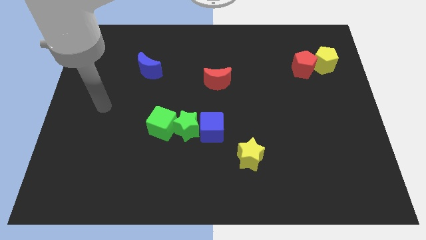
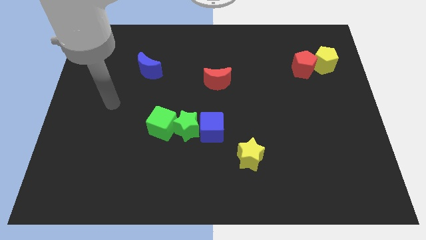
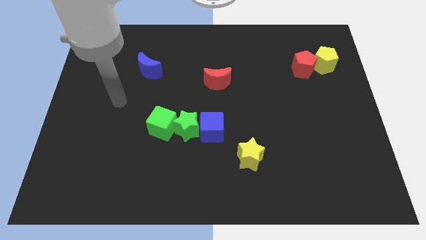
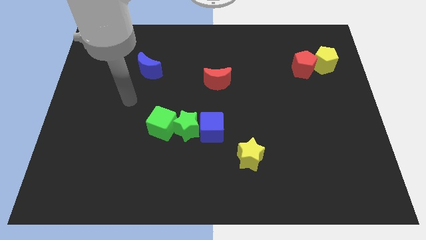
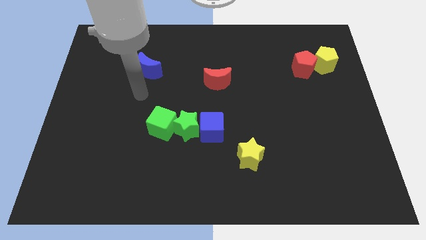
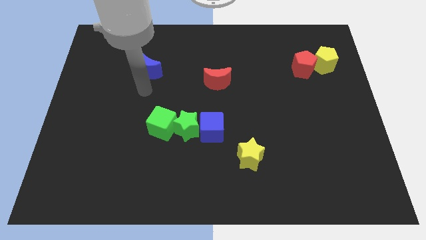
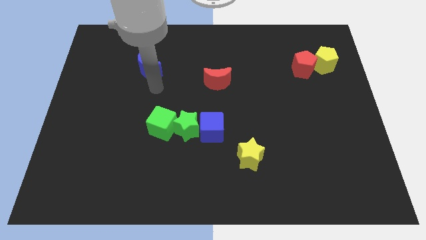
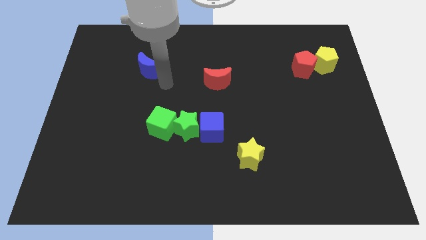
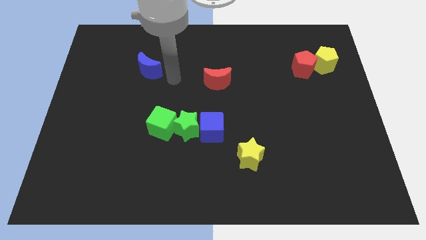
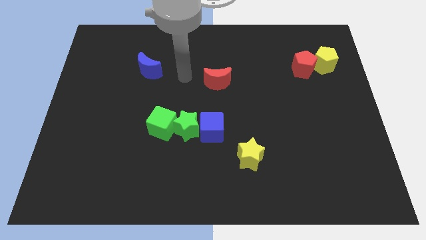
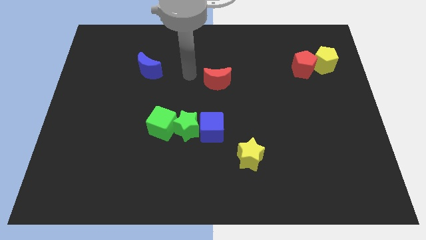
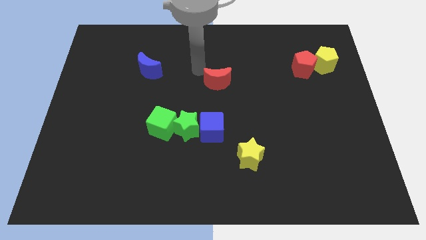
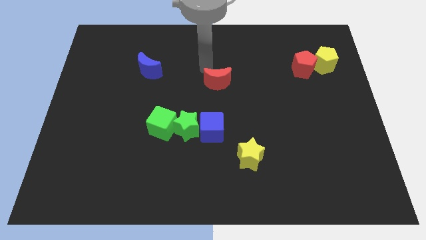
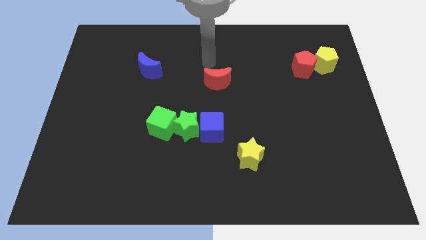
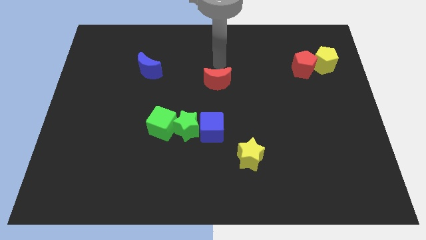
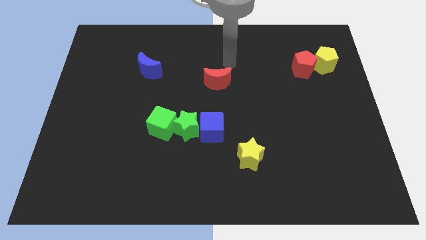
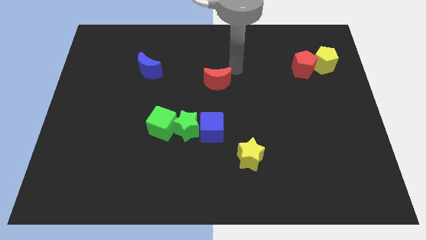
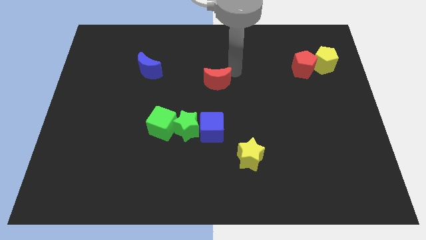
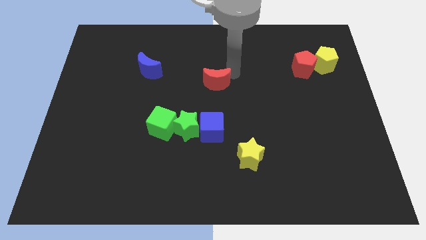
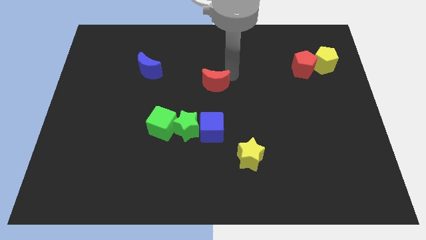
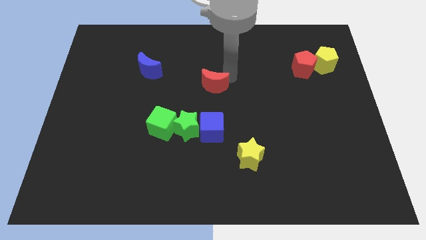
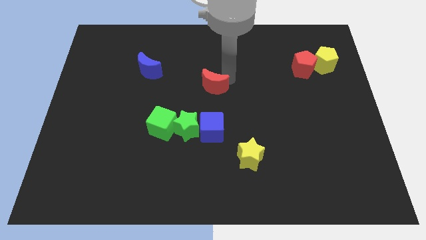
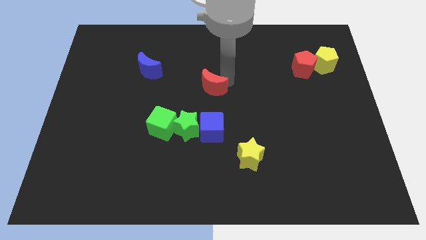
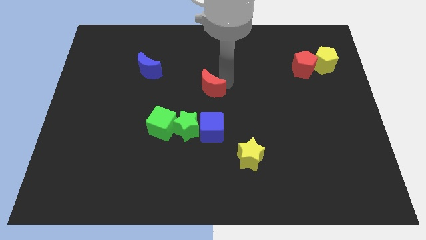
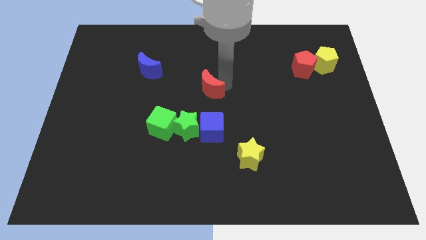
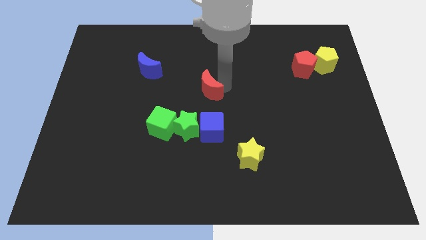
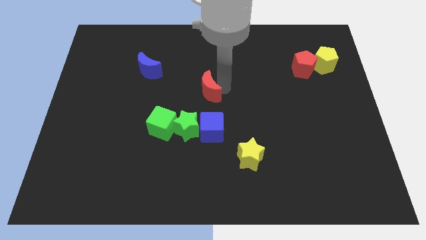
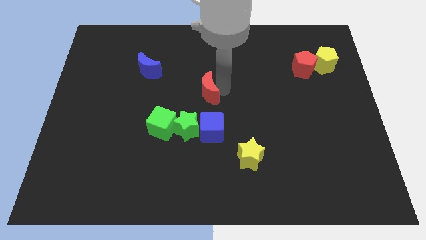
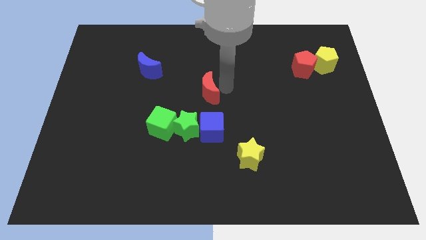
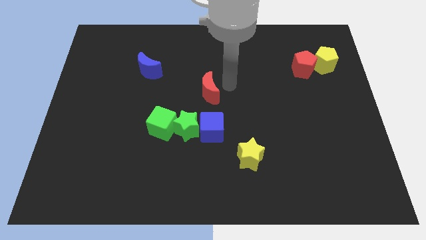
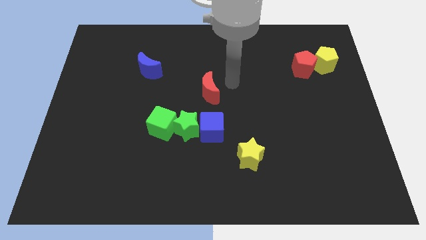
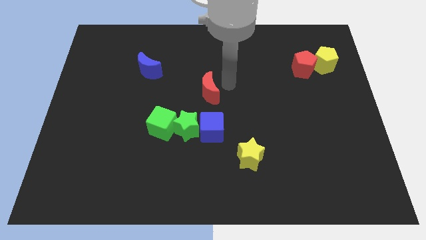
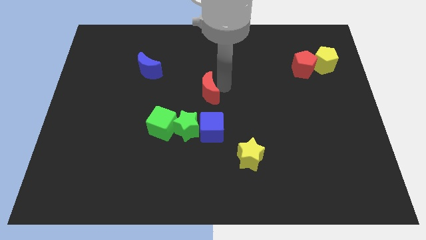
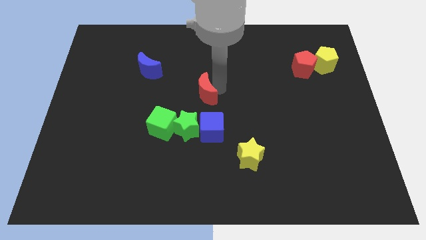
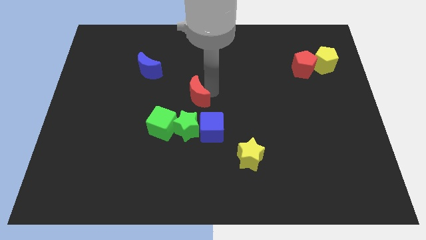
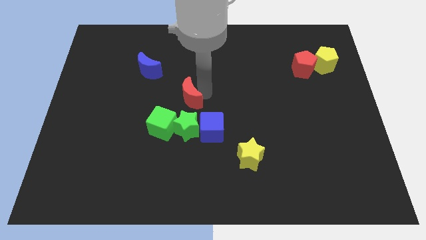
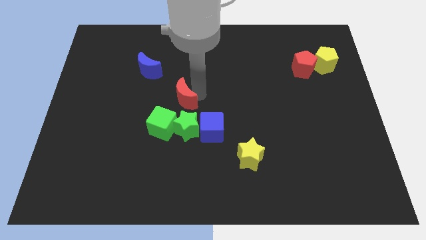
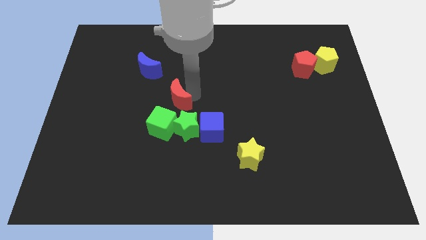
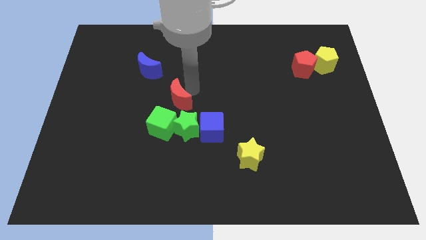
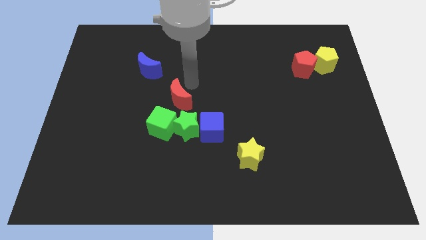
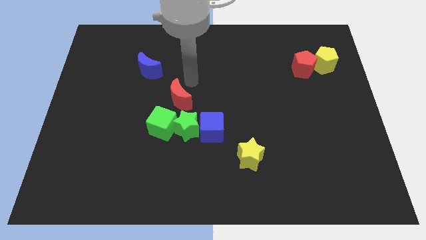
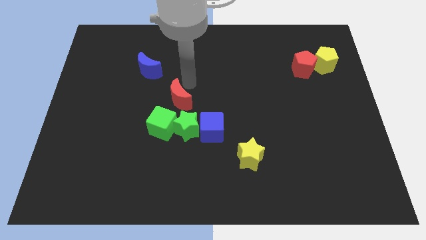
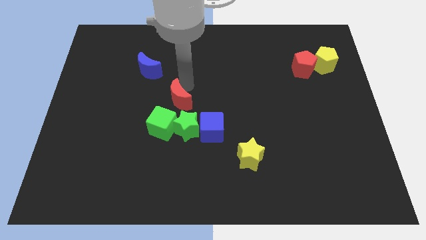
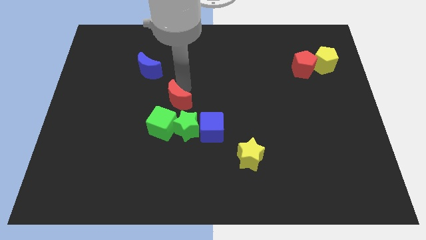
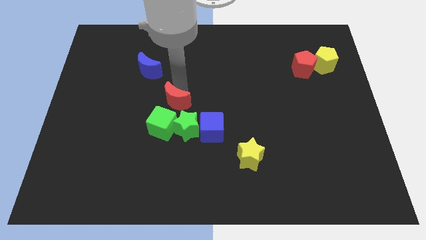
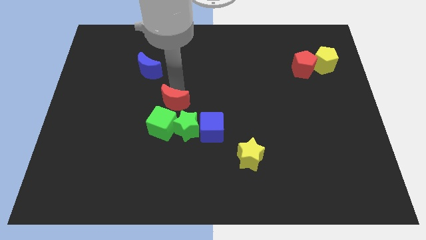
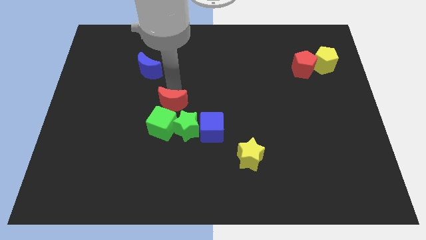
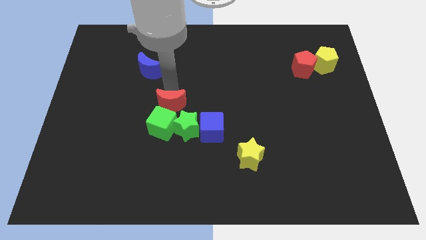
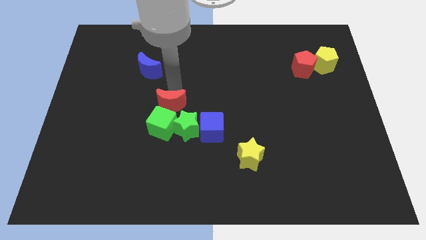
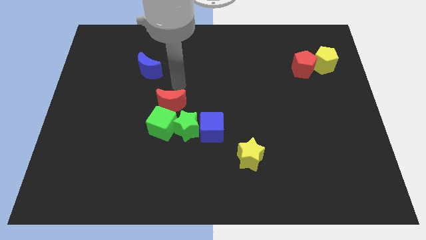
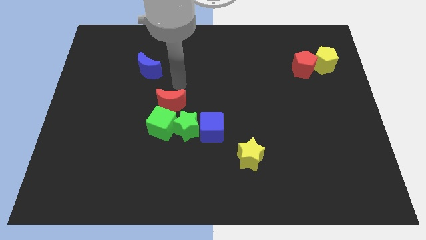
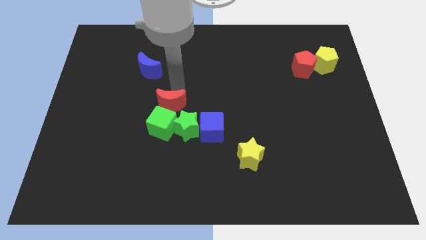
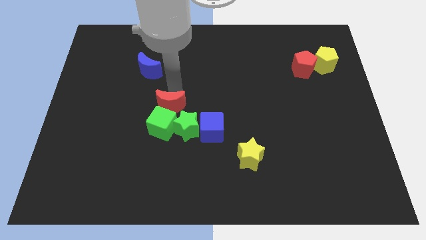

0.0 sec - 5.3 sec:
put the red moon to the green cube

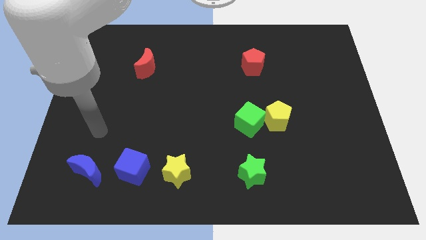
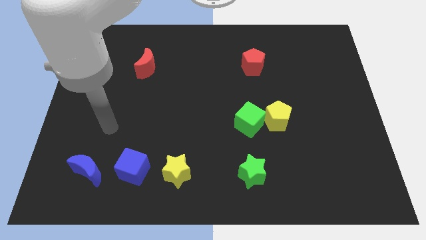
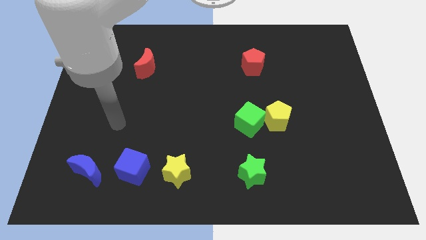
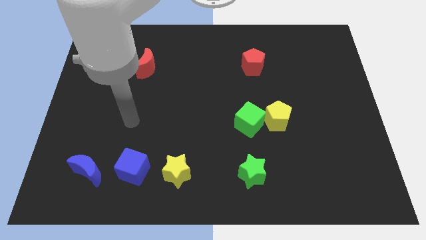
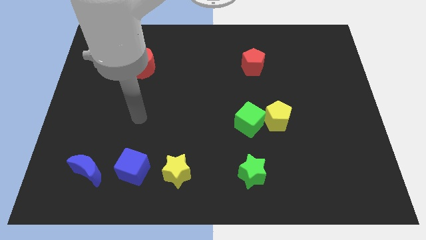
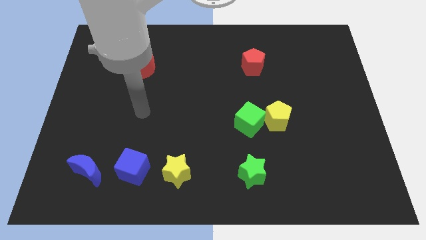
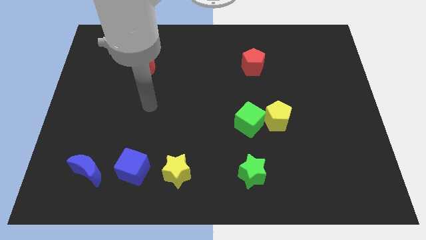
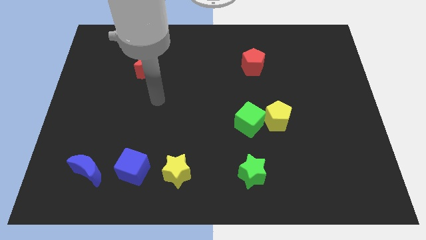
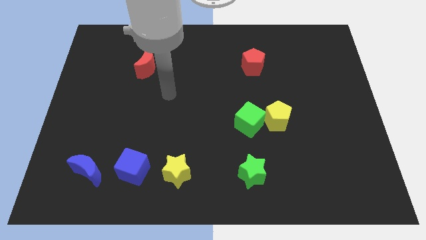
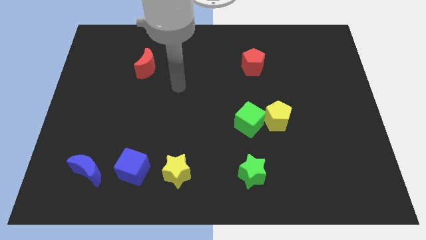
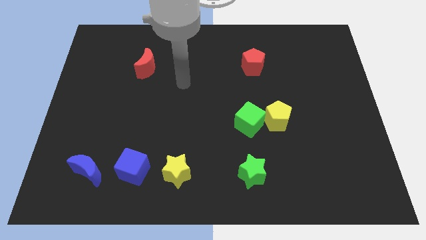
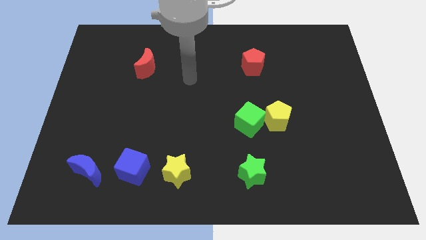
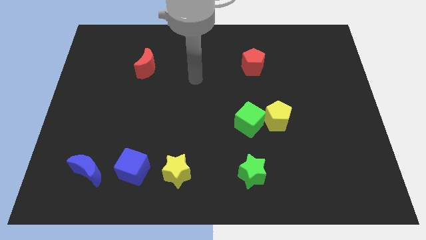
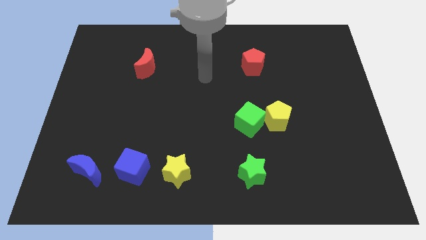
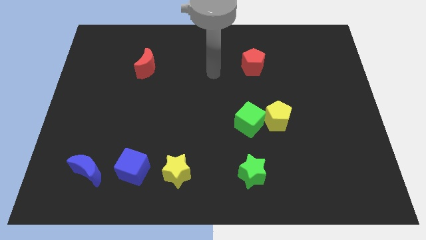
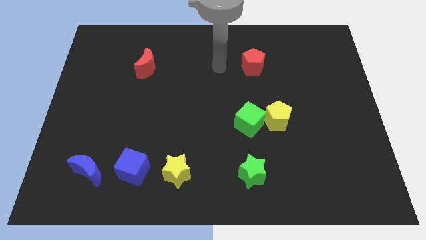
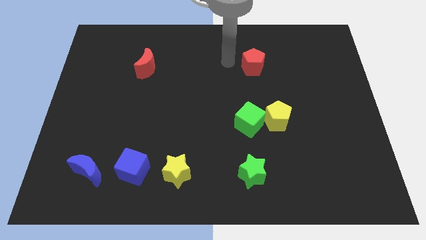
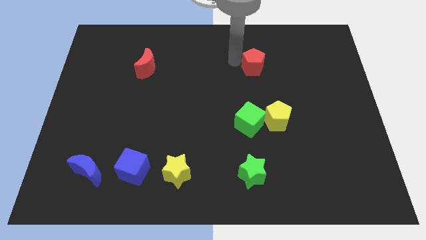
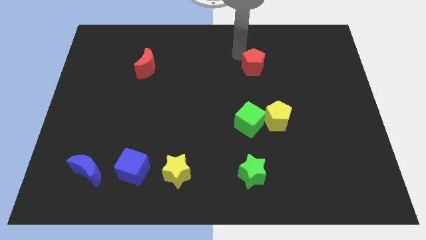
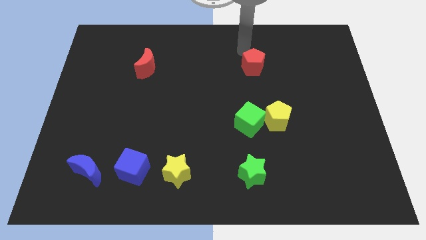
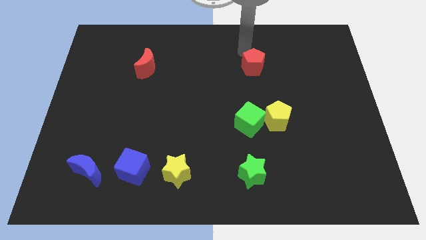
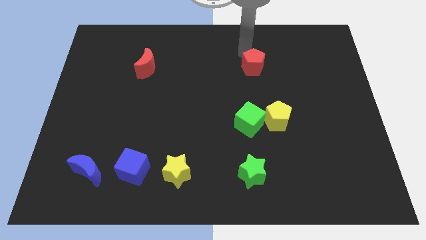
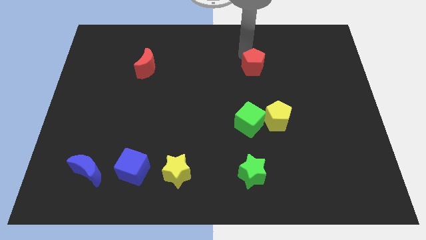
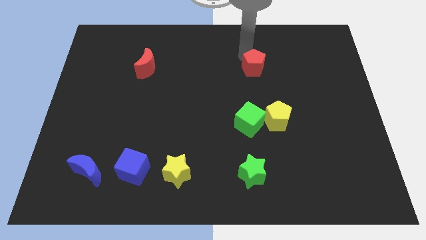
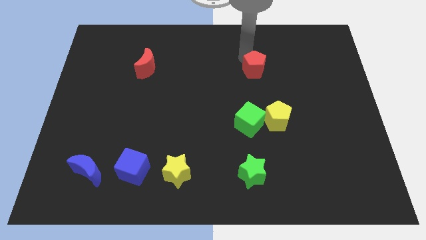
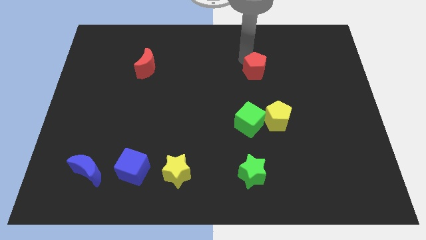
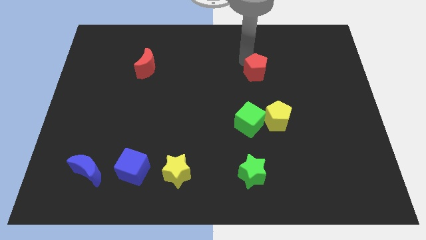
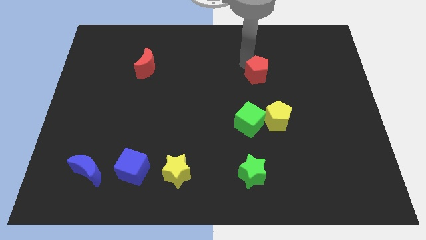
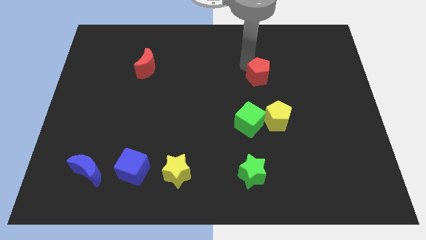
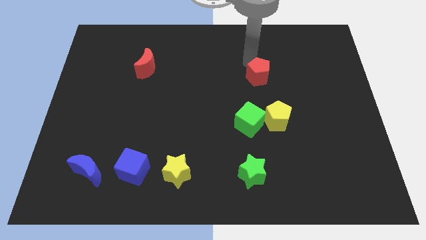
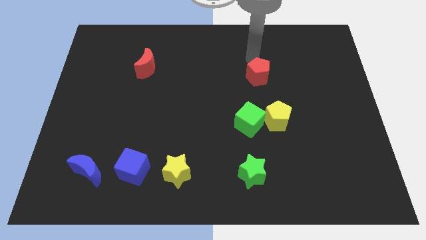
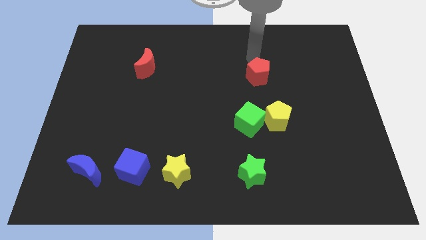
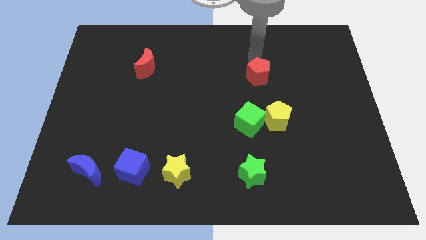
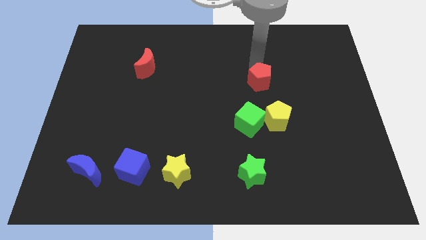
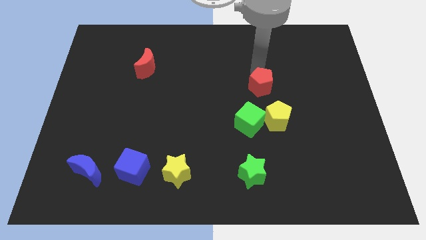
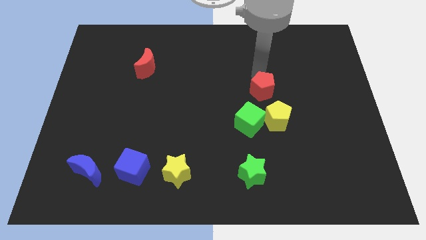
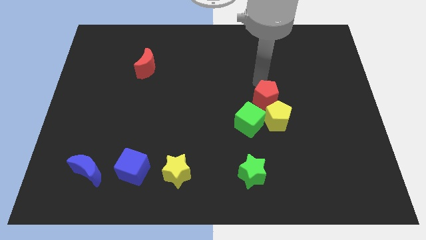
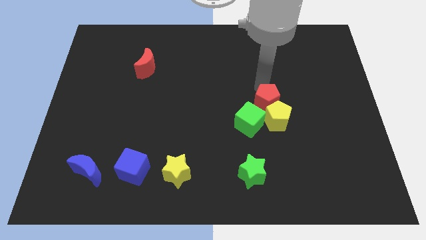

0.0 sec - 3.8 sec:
move the red pentagon next to the yellow pentagon
